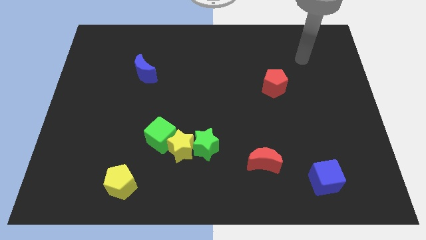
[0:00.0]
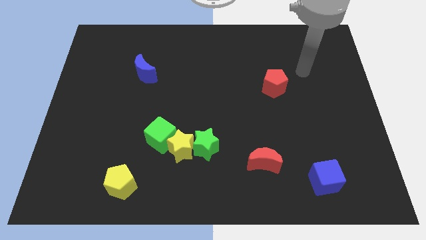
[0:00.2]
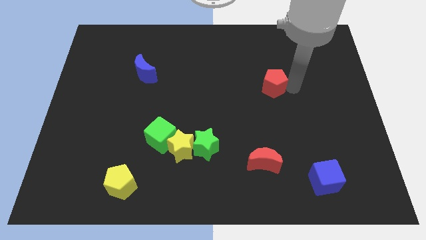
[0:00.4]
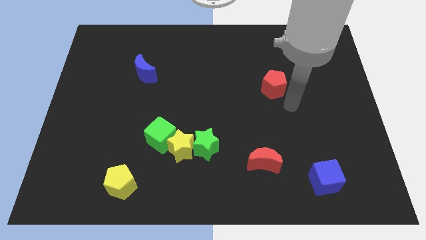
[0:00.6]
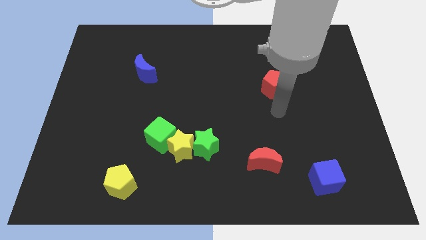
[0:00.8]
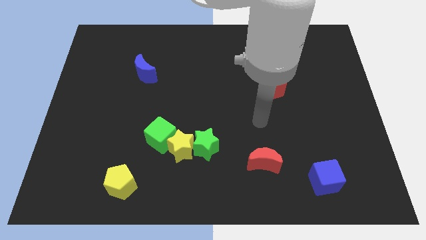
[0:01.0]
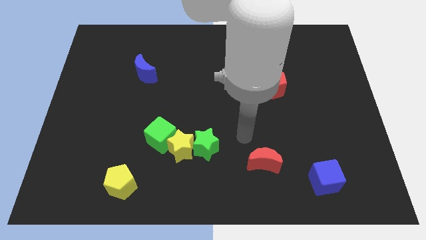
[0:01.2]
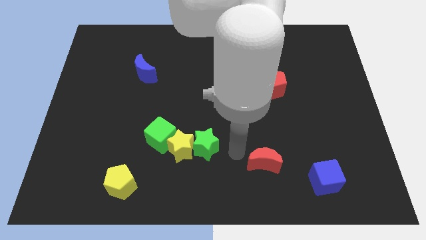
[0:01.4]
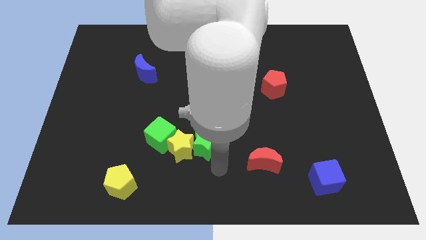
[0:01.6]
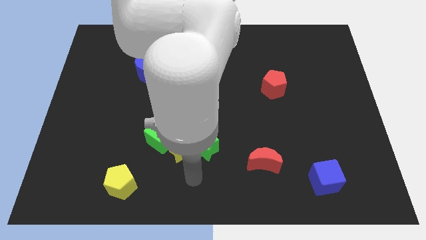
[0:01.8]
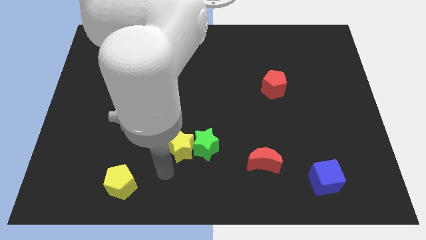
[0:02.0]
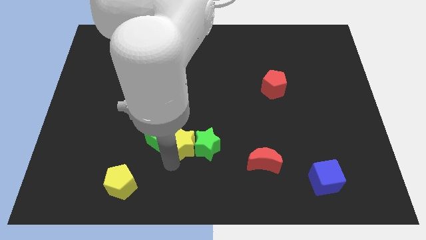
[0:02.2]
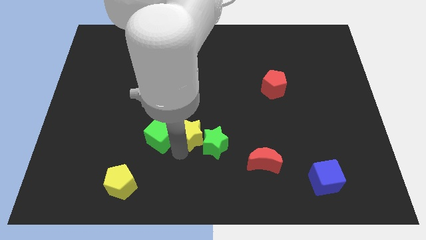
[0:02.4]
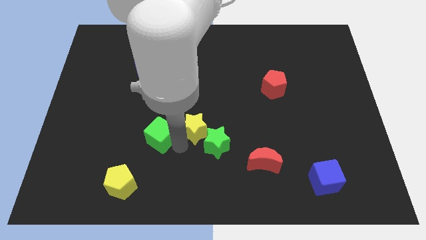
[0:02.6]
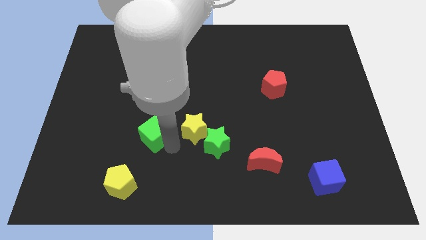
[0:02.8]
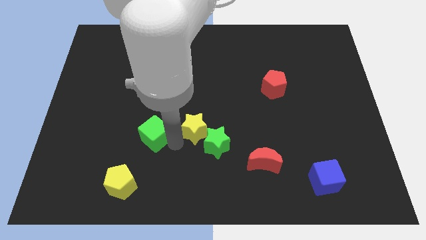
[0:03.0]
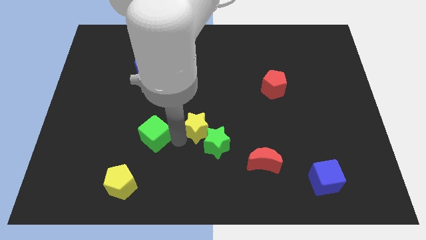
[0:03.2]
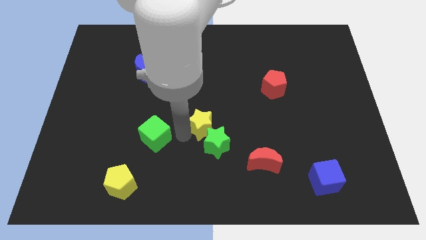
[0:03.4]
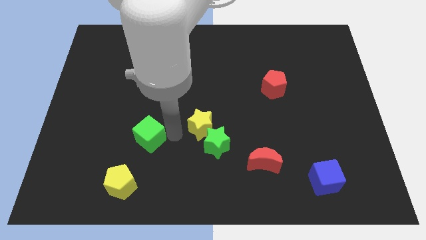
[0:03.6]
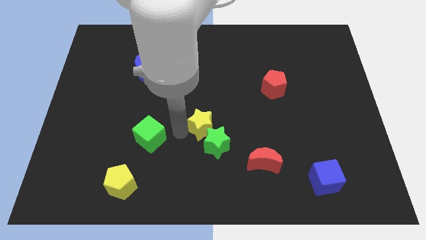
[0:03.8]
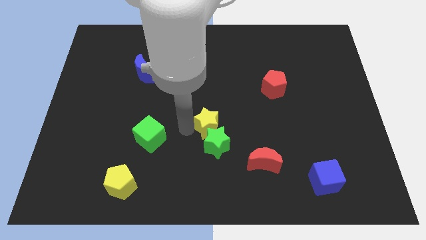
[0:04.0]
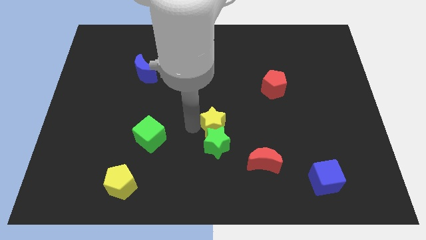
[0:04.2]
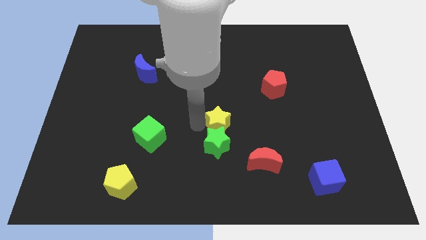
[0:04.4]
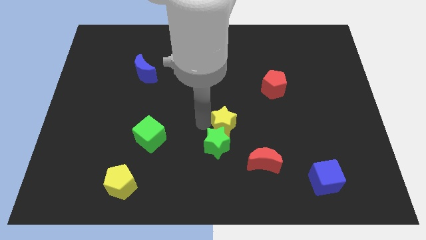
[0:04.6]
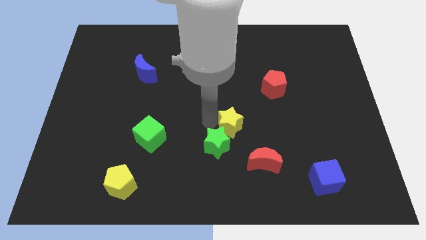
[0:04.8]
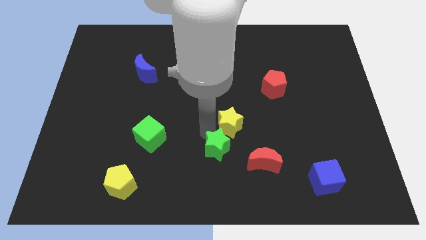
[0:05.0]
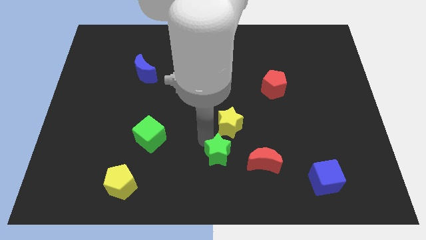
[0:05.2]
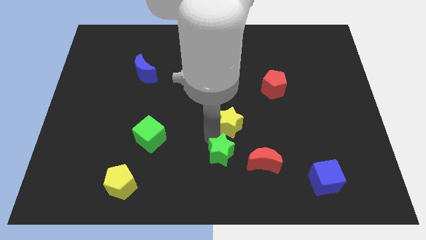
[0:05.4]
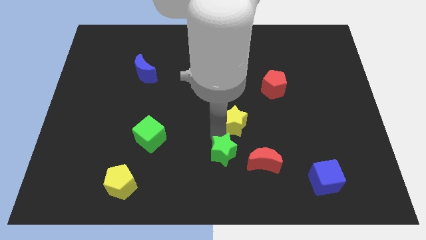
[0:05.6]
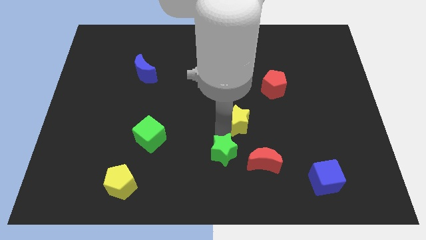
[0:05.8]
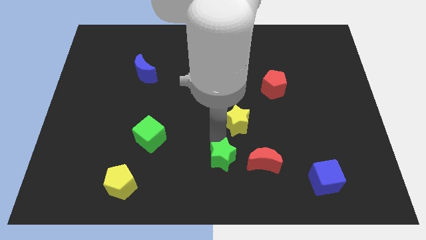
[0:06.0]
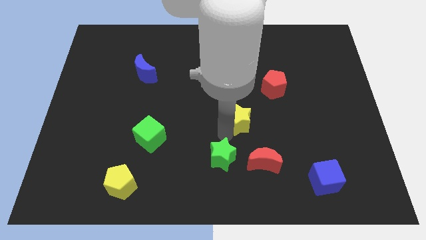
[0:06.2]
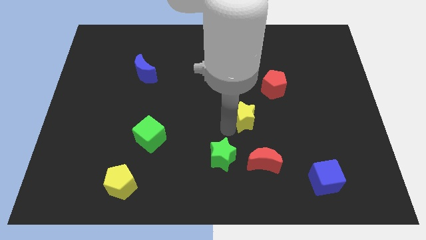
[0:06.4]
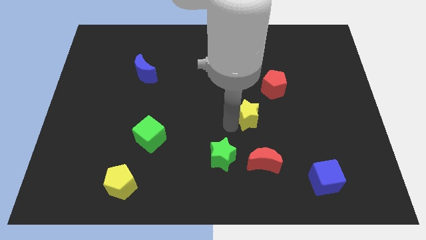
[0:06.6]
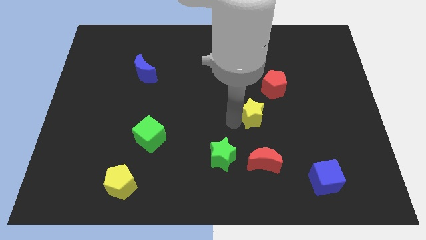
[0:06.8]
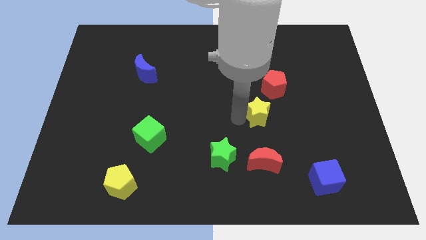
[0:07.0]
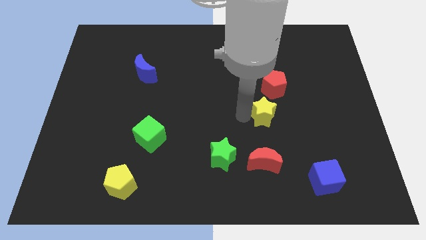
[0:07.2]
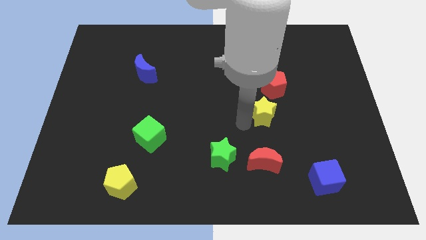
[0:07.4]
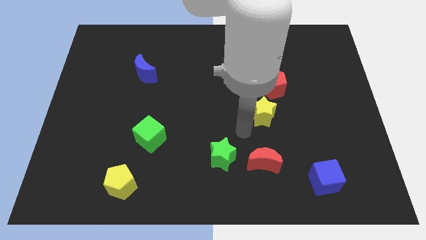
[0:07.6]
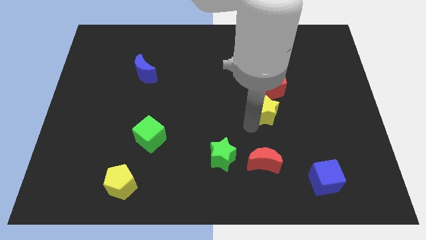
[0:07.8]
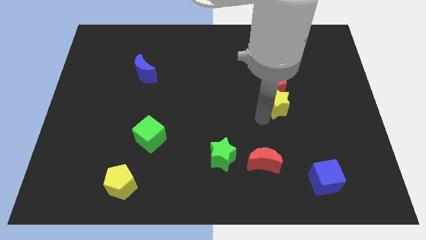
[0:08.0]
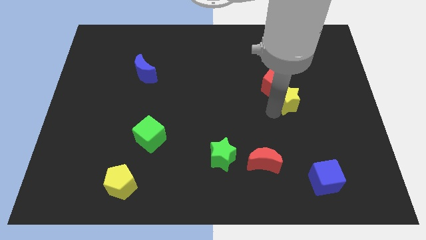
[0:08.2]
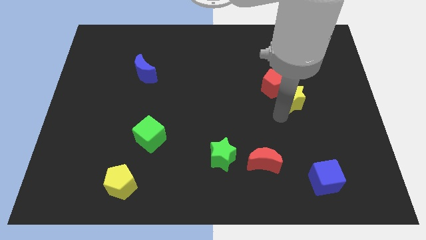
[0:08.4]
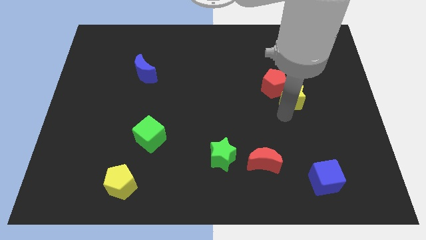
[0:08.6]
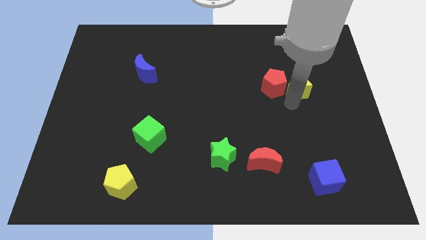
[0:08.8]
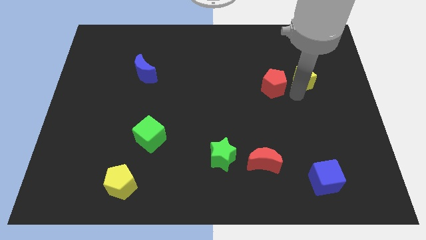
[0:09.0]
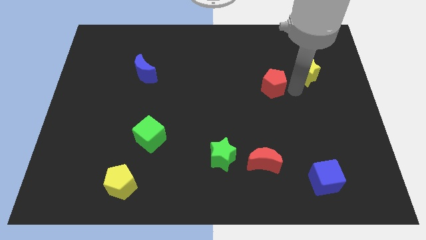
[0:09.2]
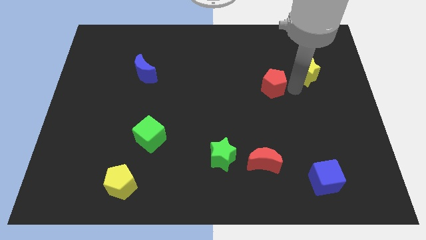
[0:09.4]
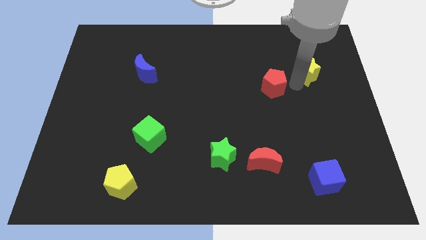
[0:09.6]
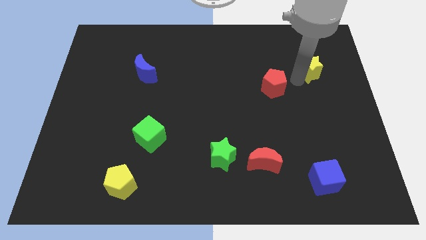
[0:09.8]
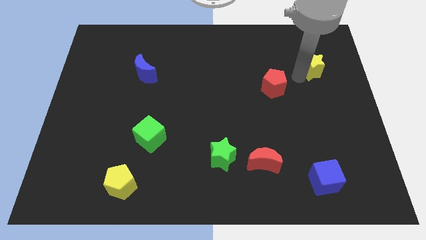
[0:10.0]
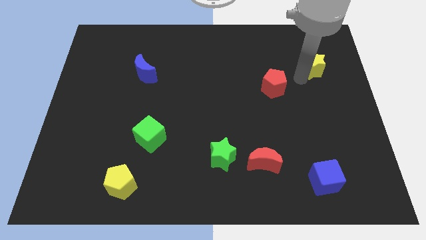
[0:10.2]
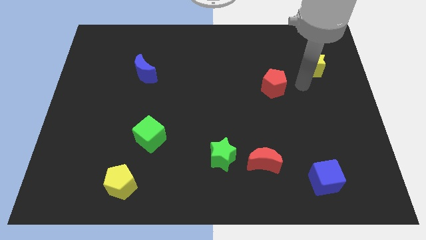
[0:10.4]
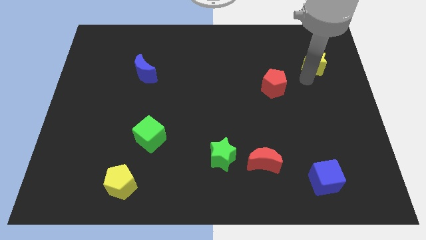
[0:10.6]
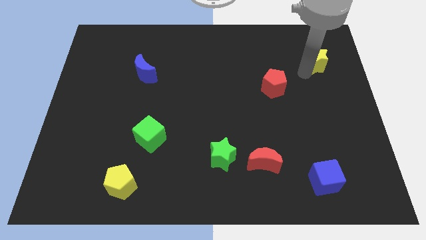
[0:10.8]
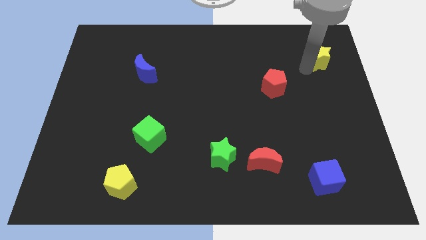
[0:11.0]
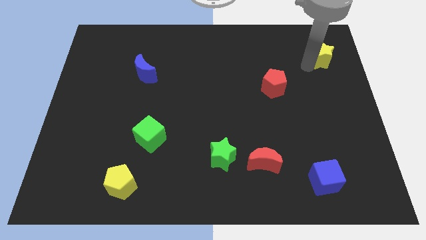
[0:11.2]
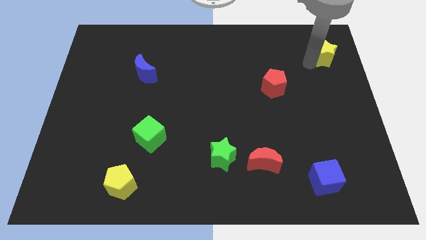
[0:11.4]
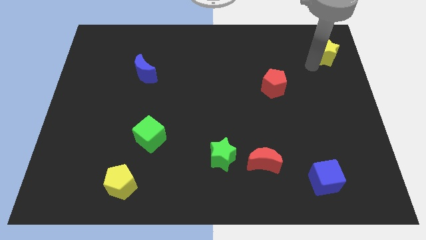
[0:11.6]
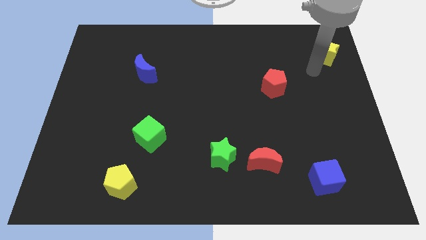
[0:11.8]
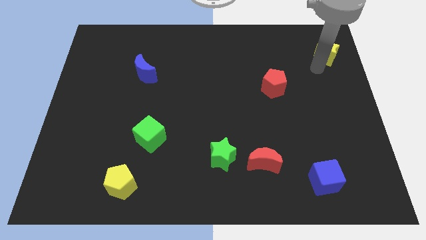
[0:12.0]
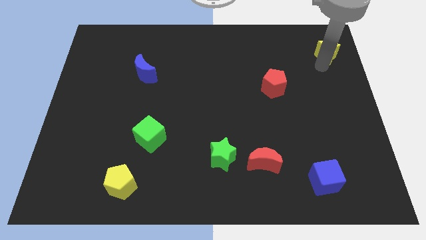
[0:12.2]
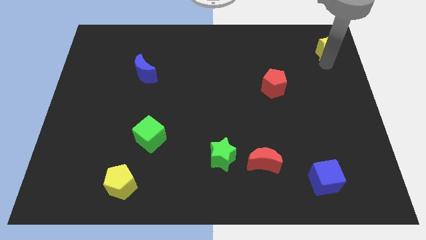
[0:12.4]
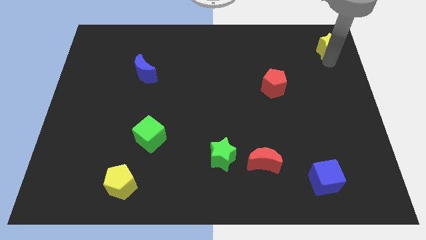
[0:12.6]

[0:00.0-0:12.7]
slide the yellow star to the upper right corner

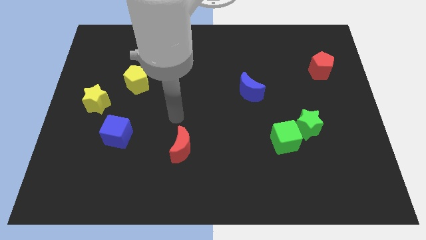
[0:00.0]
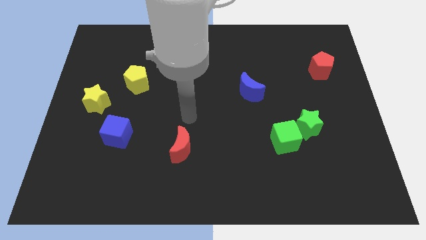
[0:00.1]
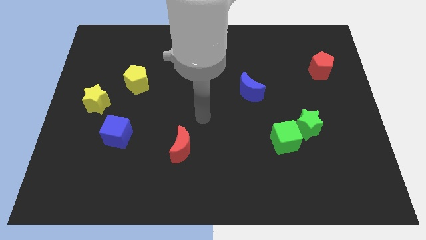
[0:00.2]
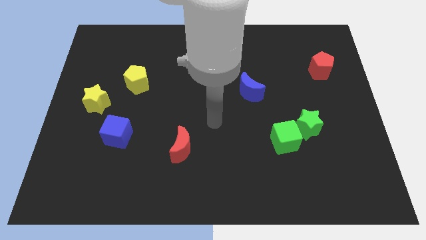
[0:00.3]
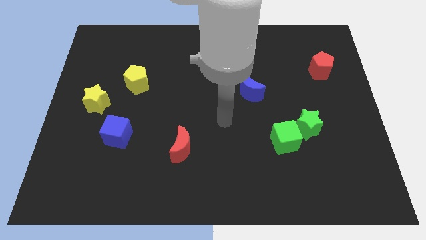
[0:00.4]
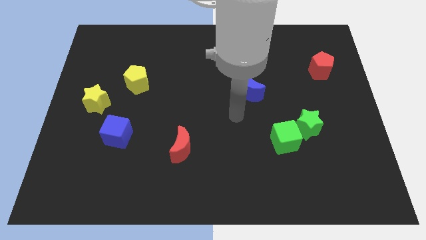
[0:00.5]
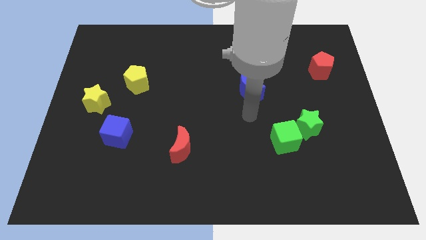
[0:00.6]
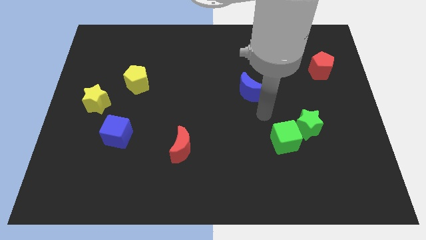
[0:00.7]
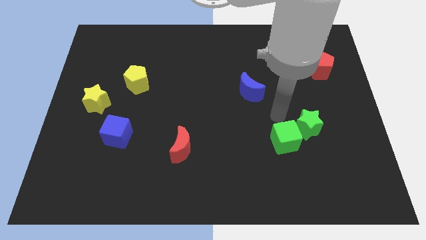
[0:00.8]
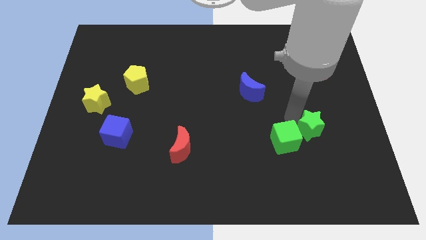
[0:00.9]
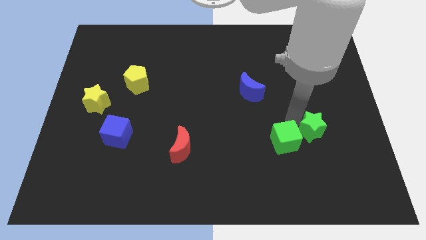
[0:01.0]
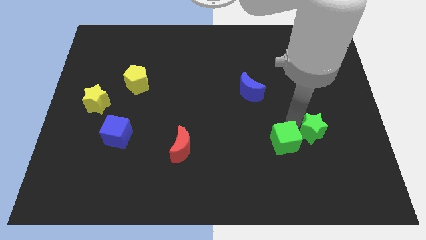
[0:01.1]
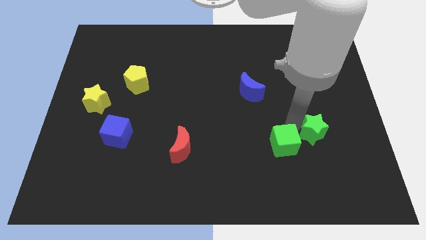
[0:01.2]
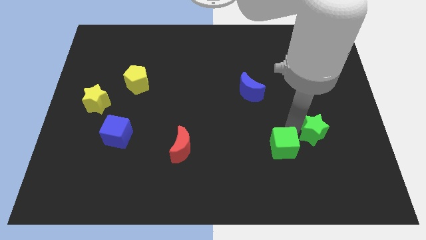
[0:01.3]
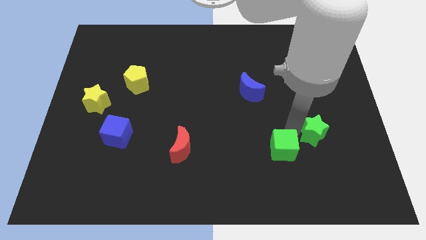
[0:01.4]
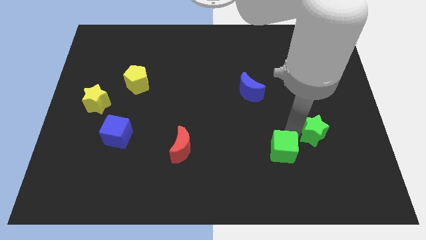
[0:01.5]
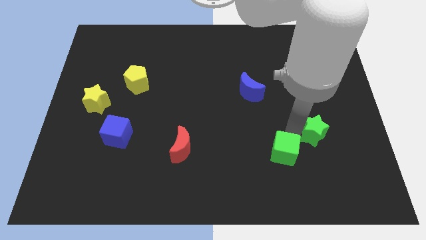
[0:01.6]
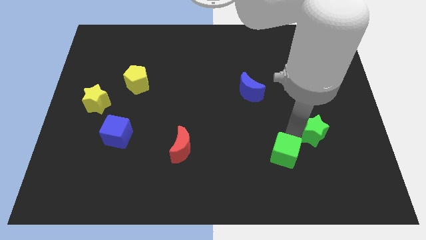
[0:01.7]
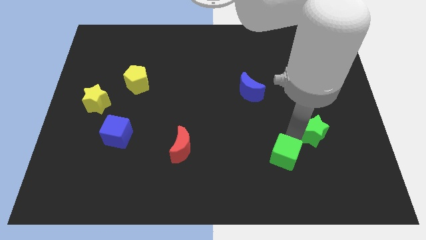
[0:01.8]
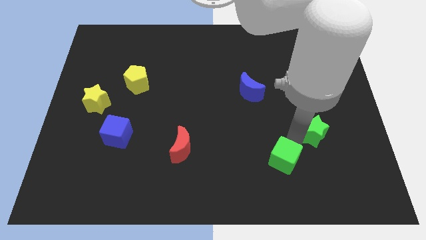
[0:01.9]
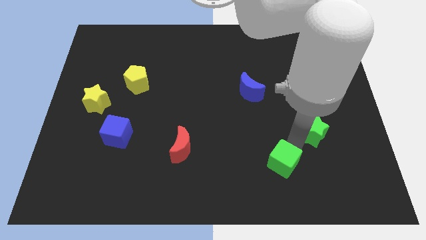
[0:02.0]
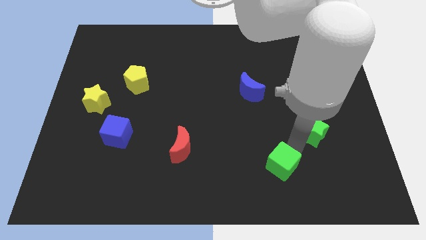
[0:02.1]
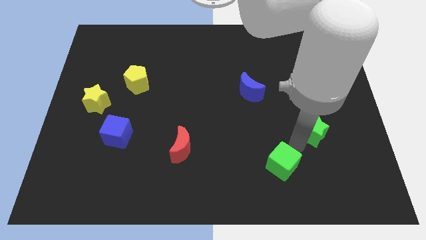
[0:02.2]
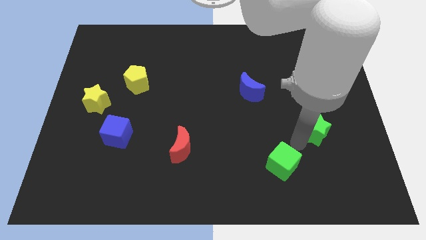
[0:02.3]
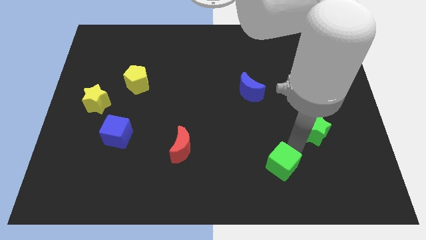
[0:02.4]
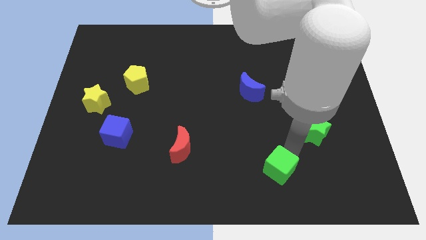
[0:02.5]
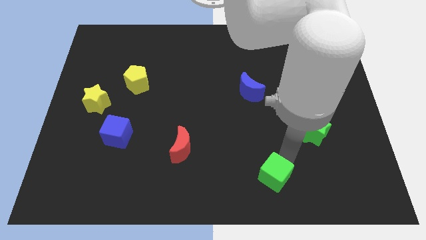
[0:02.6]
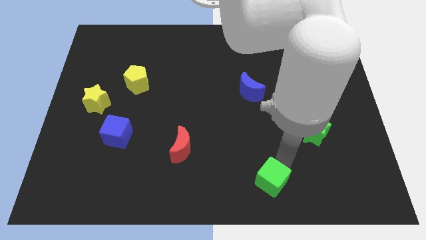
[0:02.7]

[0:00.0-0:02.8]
push the green cube to the bottom
